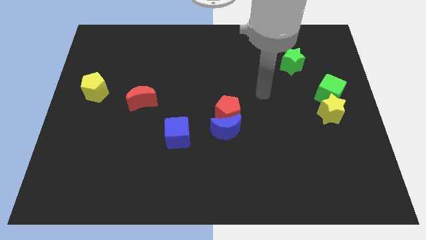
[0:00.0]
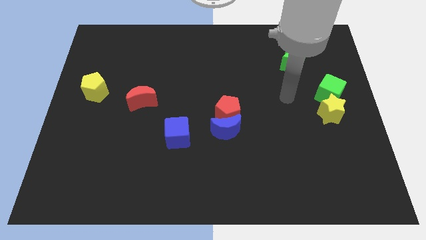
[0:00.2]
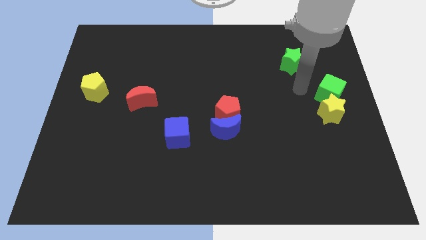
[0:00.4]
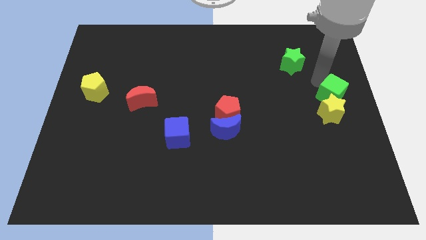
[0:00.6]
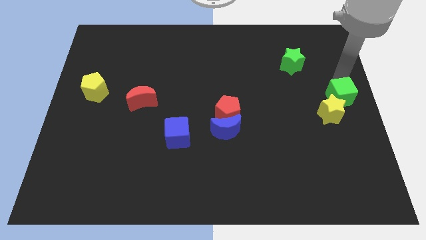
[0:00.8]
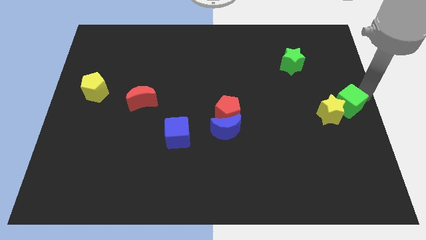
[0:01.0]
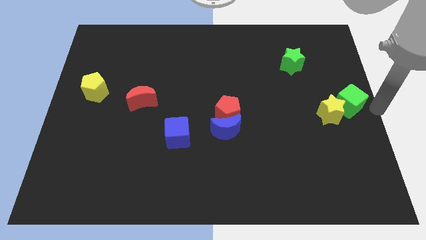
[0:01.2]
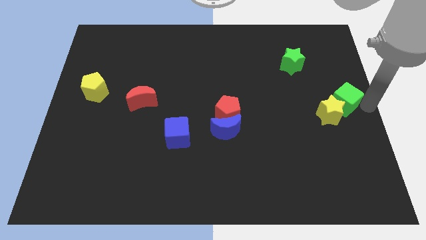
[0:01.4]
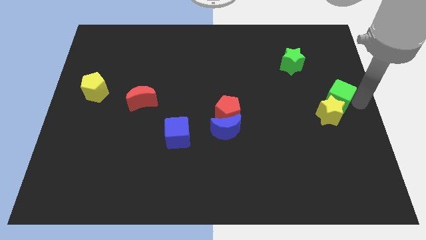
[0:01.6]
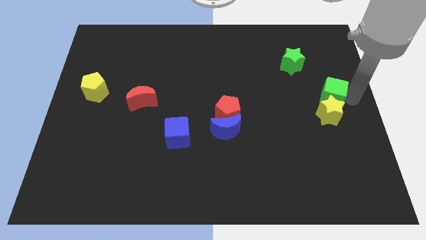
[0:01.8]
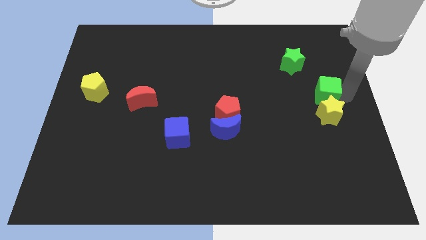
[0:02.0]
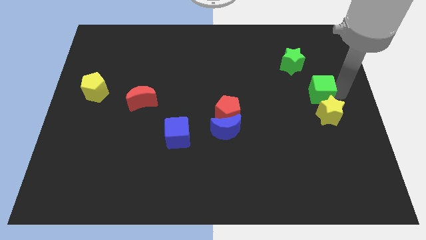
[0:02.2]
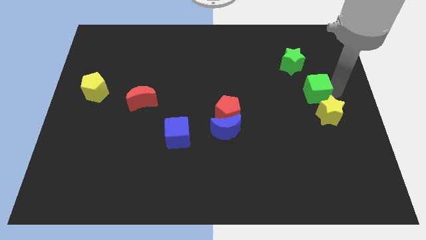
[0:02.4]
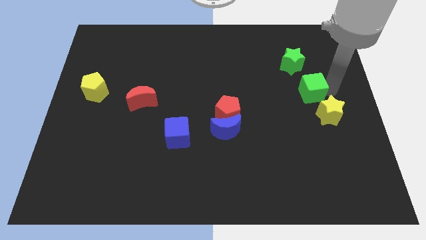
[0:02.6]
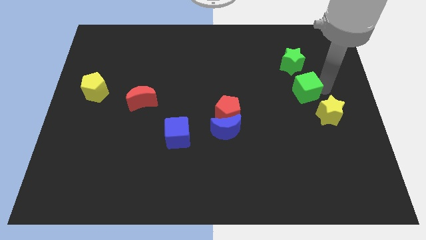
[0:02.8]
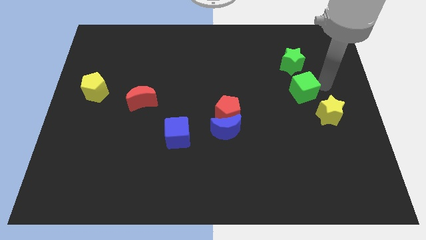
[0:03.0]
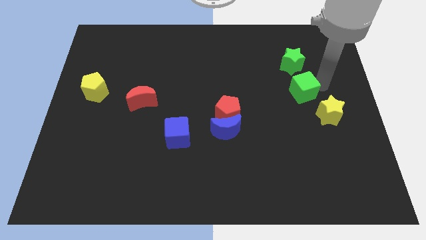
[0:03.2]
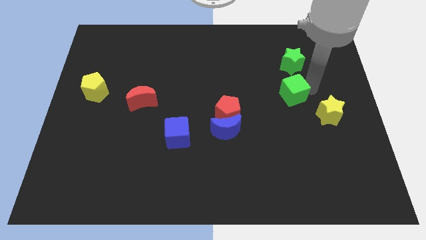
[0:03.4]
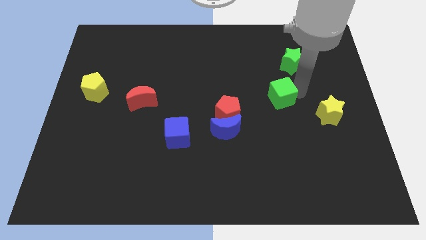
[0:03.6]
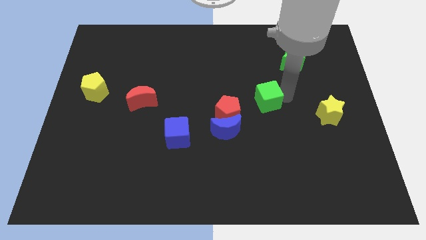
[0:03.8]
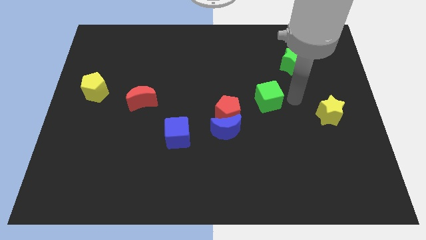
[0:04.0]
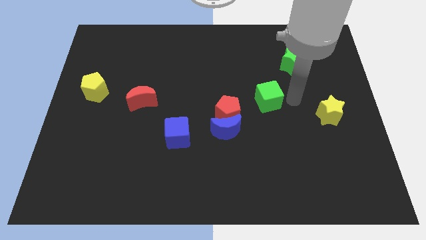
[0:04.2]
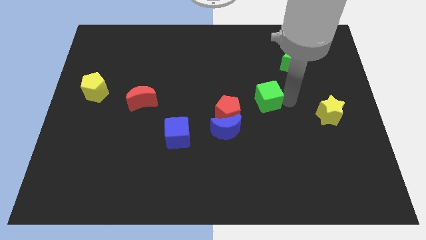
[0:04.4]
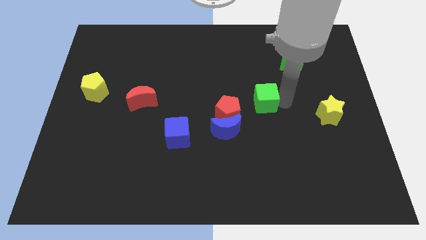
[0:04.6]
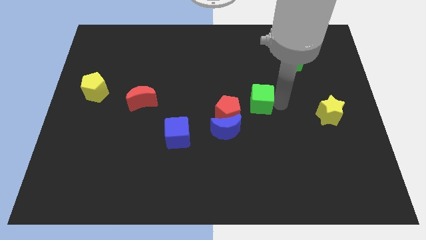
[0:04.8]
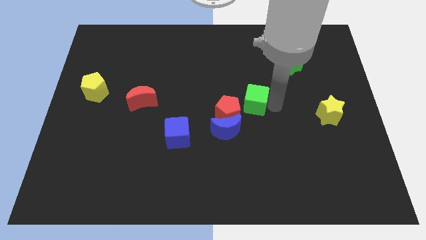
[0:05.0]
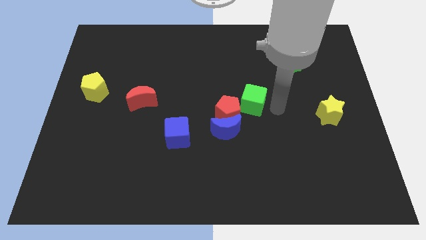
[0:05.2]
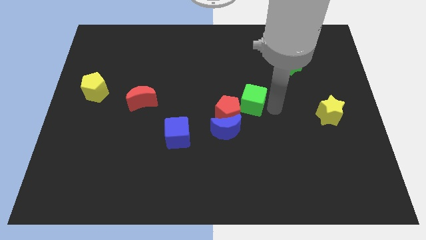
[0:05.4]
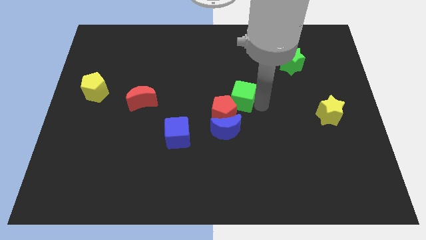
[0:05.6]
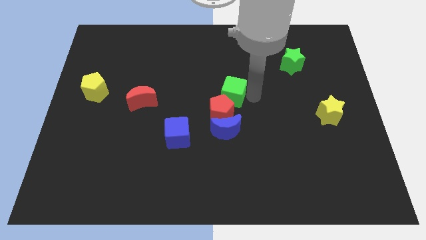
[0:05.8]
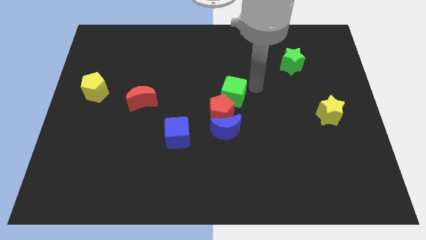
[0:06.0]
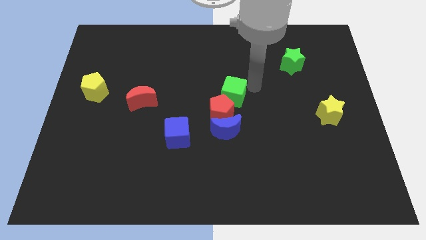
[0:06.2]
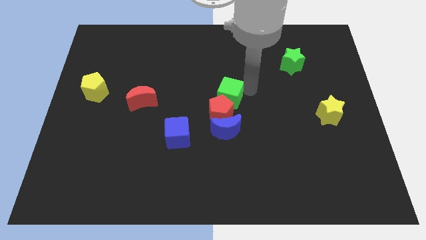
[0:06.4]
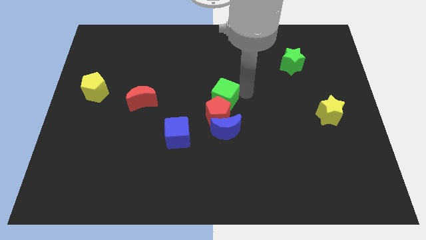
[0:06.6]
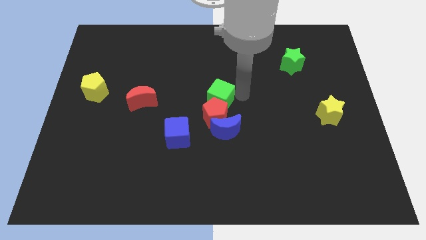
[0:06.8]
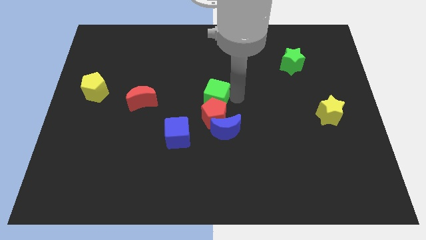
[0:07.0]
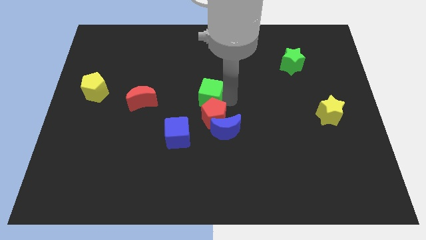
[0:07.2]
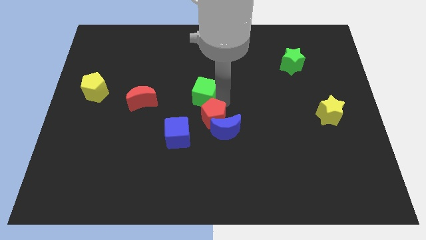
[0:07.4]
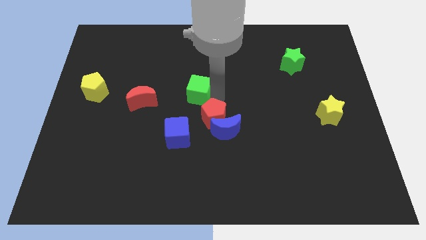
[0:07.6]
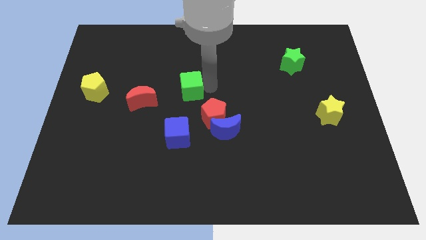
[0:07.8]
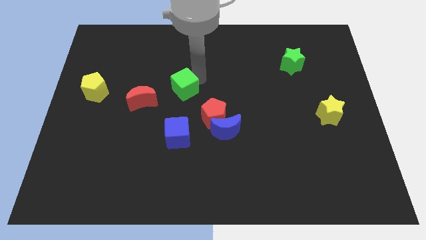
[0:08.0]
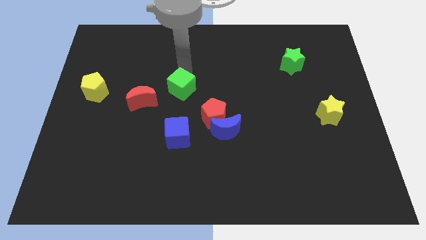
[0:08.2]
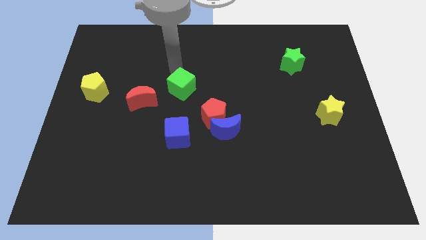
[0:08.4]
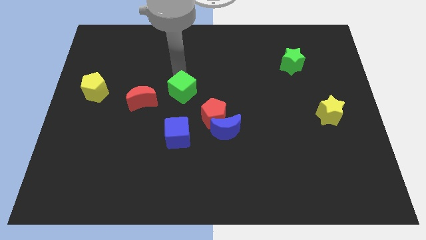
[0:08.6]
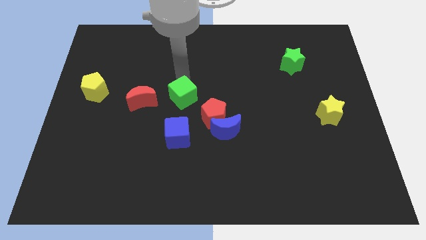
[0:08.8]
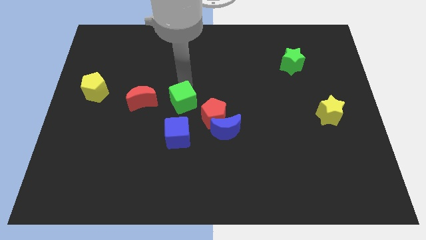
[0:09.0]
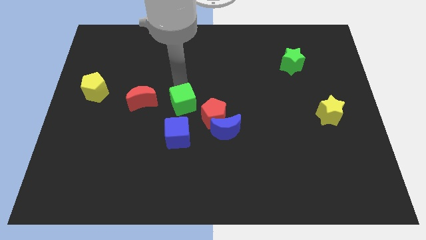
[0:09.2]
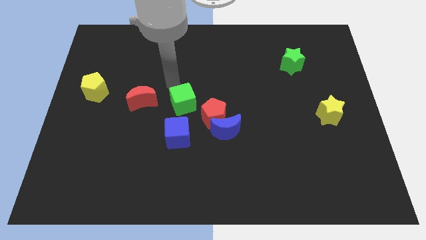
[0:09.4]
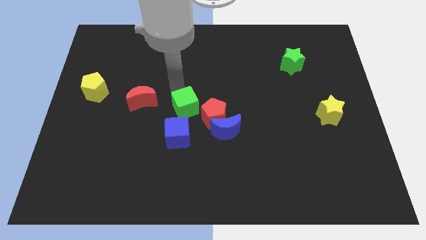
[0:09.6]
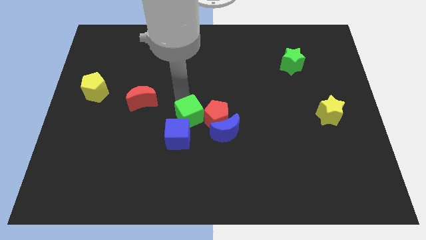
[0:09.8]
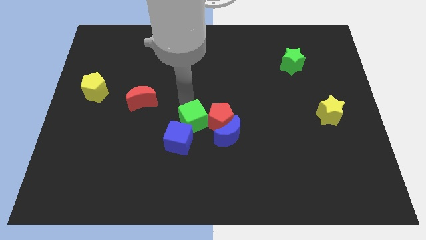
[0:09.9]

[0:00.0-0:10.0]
move the green cube close to the blue cube

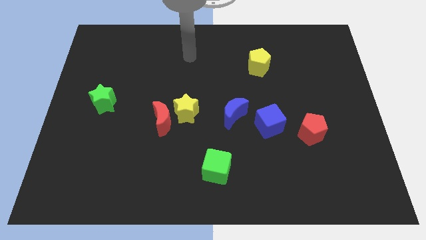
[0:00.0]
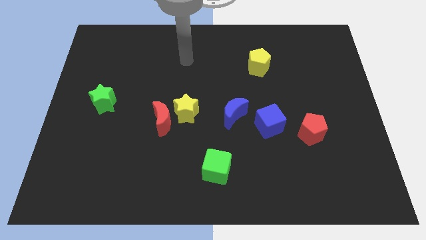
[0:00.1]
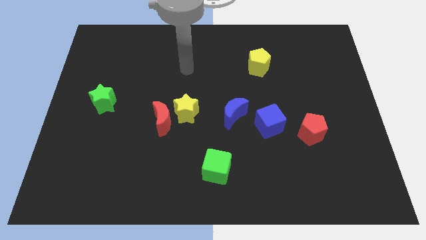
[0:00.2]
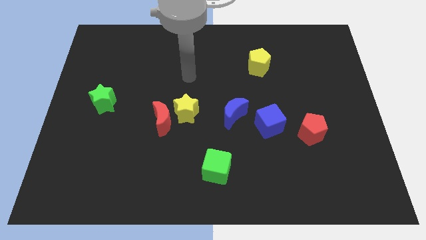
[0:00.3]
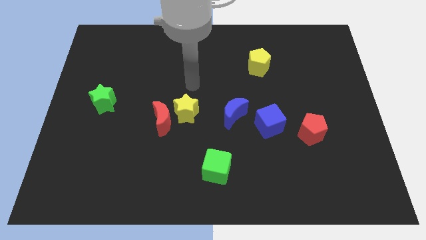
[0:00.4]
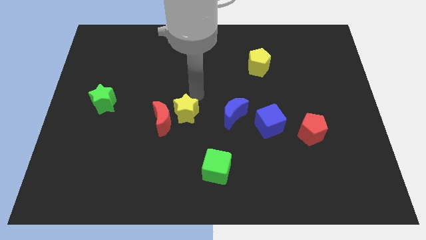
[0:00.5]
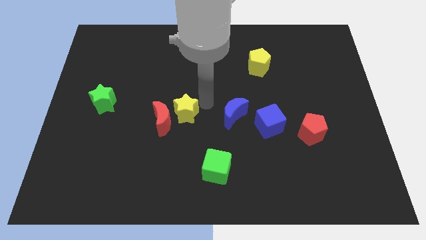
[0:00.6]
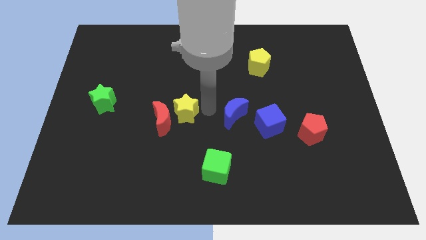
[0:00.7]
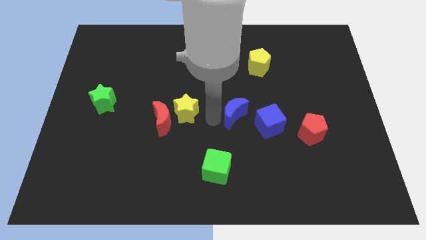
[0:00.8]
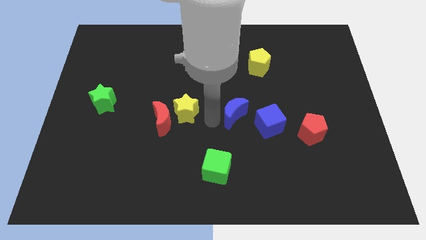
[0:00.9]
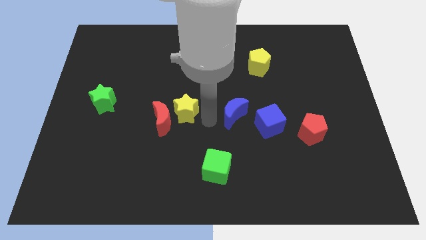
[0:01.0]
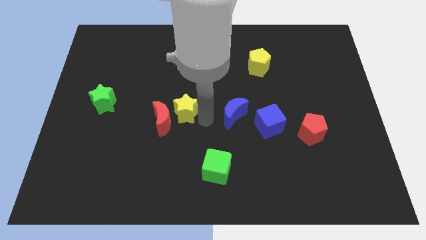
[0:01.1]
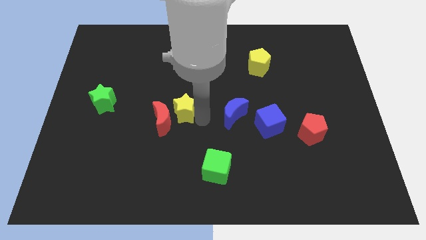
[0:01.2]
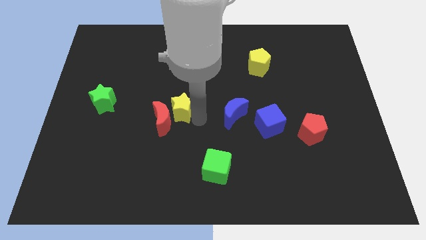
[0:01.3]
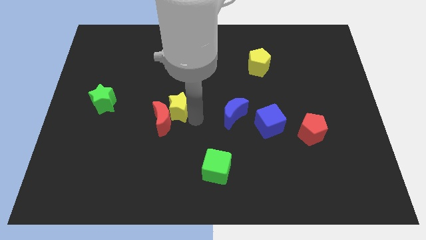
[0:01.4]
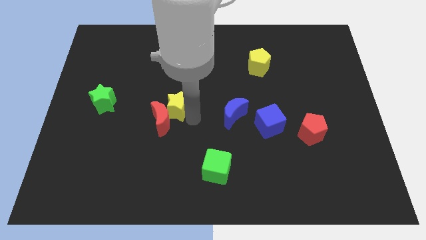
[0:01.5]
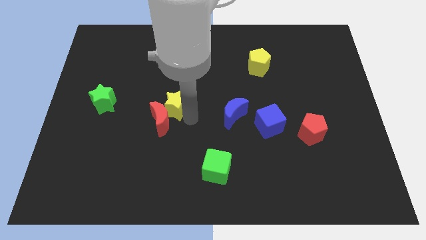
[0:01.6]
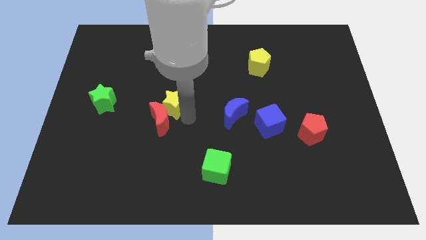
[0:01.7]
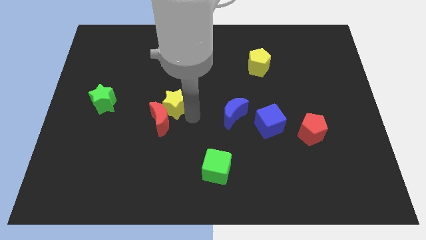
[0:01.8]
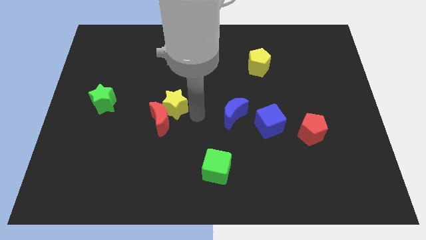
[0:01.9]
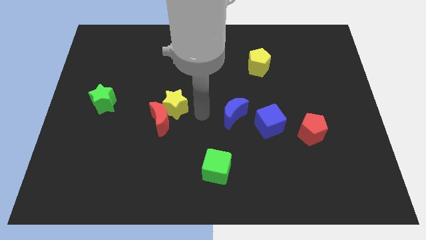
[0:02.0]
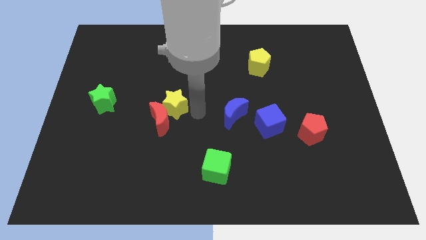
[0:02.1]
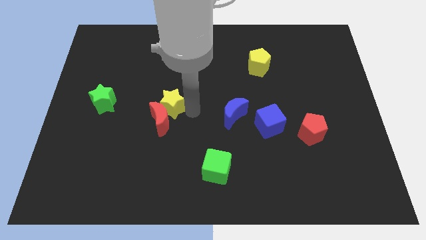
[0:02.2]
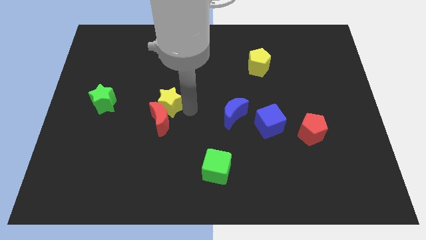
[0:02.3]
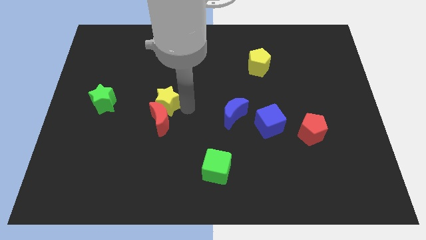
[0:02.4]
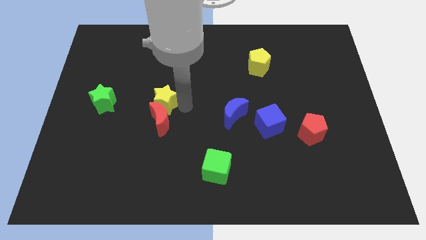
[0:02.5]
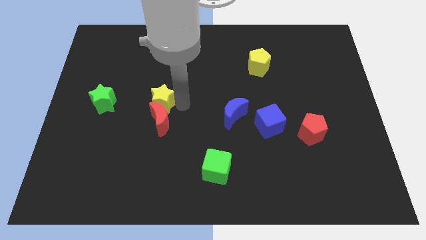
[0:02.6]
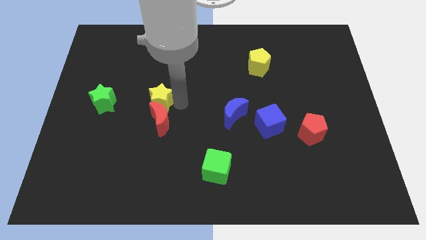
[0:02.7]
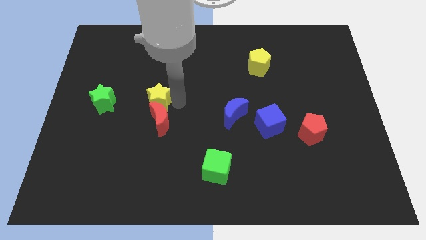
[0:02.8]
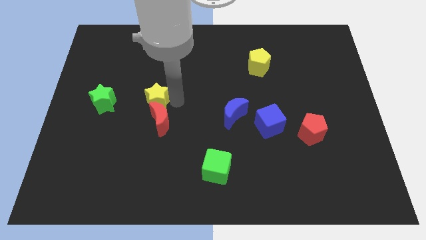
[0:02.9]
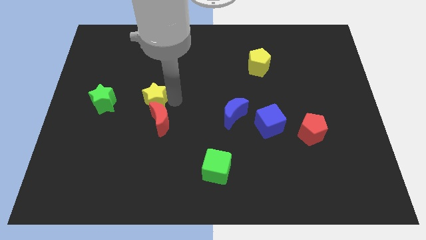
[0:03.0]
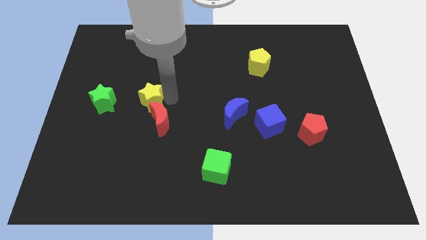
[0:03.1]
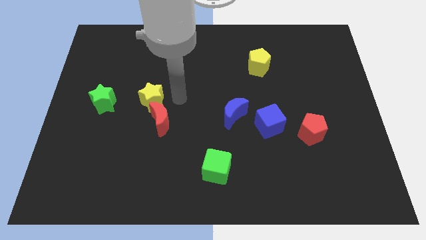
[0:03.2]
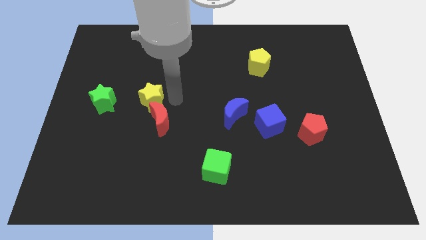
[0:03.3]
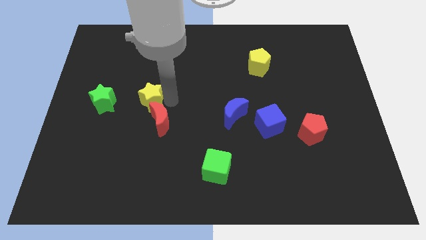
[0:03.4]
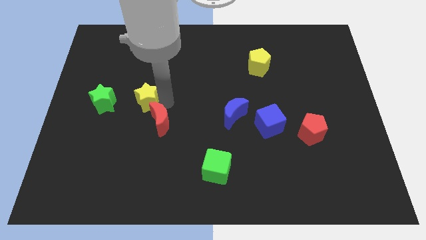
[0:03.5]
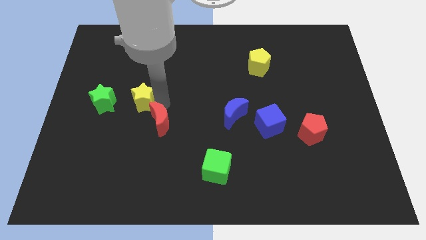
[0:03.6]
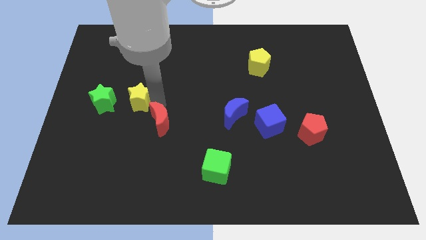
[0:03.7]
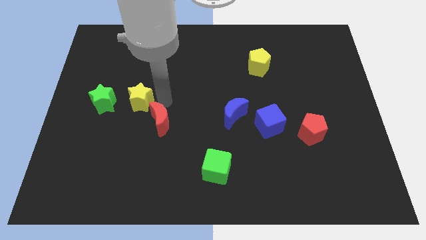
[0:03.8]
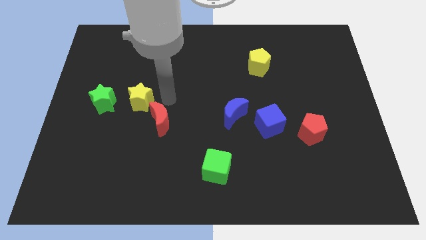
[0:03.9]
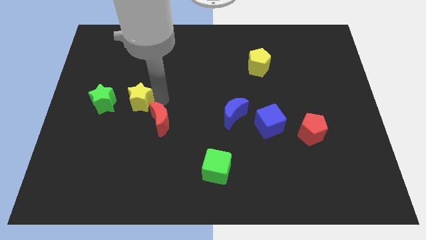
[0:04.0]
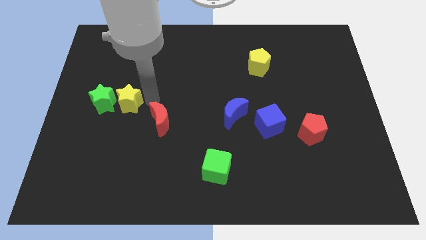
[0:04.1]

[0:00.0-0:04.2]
put the yellow star to the green star
